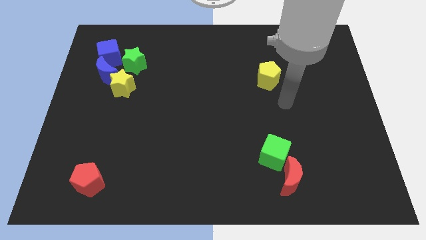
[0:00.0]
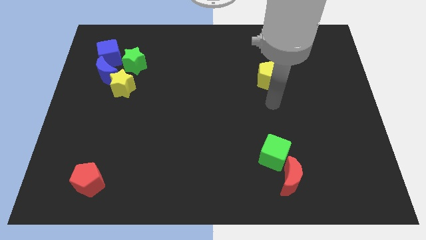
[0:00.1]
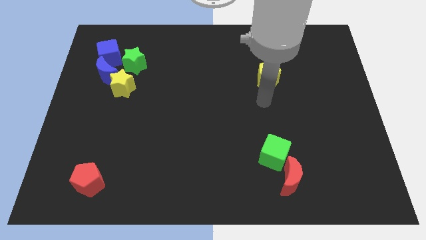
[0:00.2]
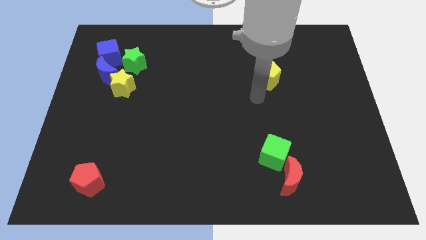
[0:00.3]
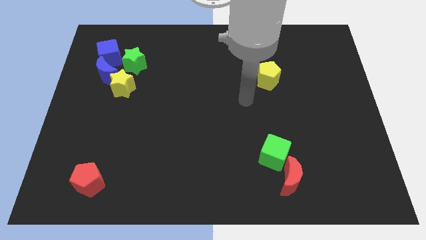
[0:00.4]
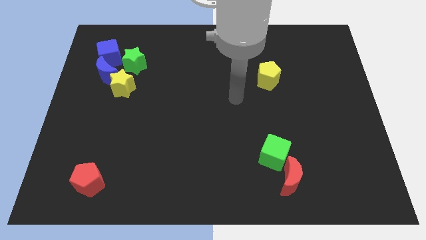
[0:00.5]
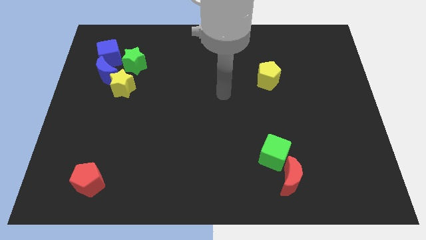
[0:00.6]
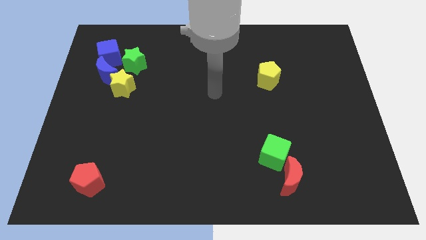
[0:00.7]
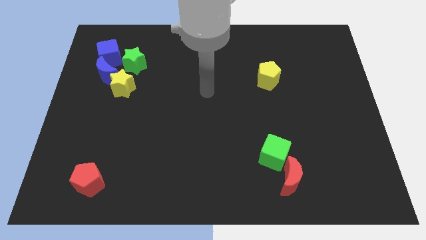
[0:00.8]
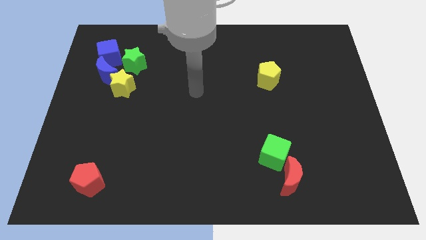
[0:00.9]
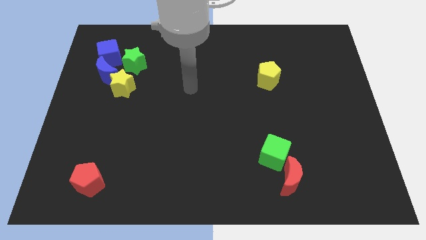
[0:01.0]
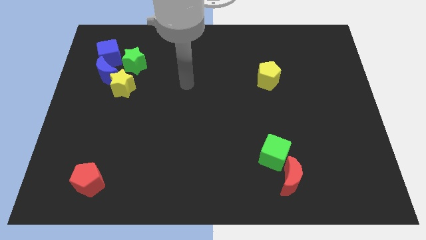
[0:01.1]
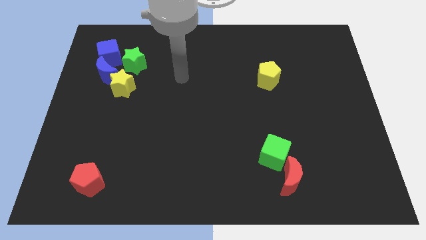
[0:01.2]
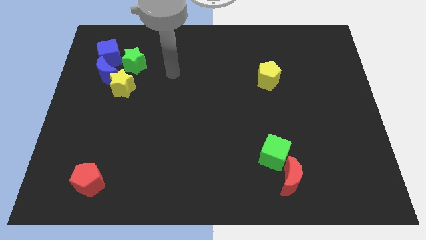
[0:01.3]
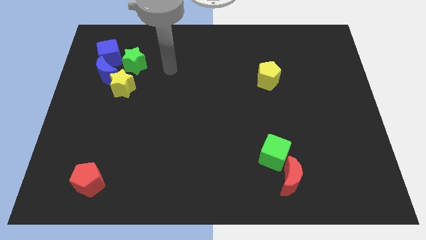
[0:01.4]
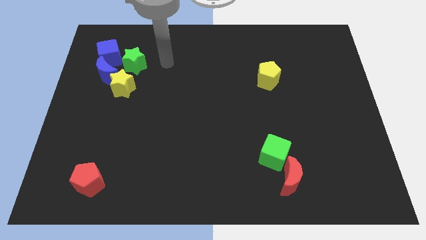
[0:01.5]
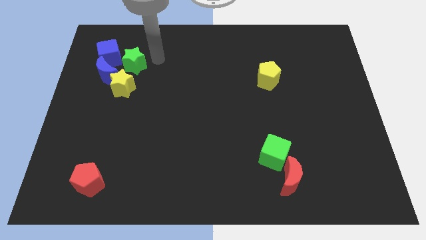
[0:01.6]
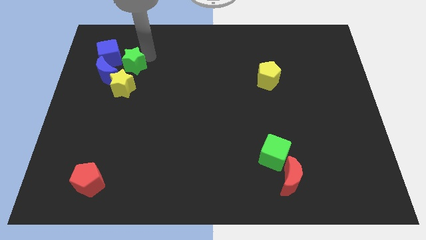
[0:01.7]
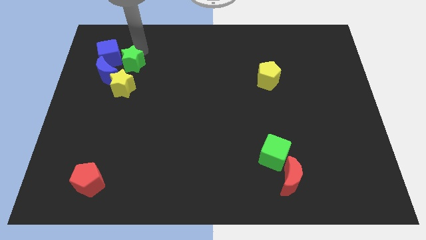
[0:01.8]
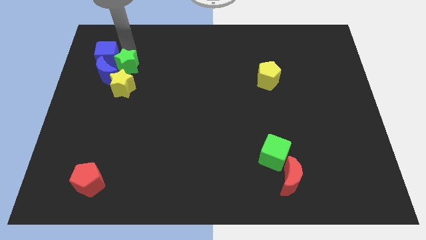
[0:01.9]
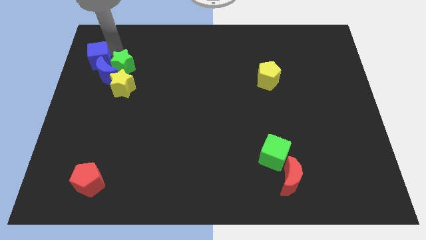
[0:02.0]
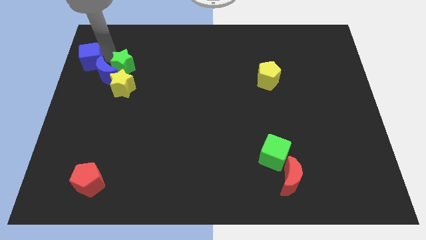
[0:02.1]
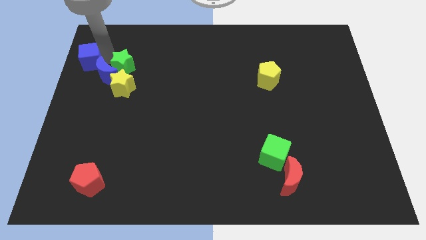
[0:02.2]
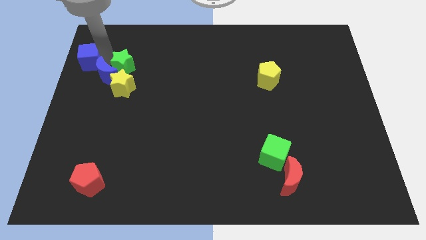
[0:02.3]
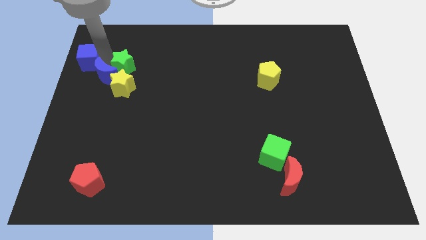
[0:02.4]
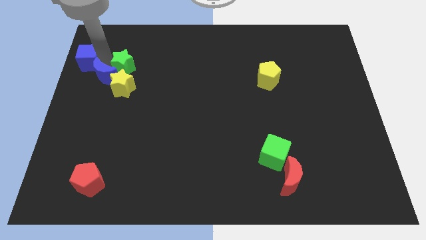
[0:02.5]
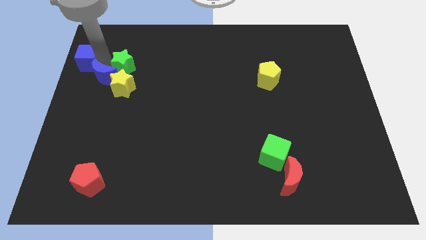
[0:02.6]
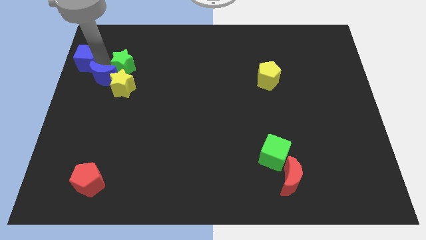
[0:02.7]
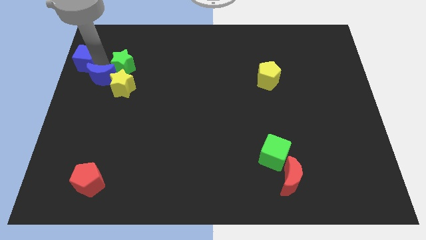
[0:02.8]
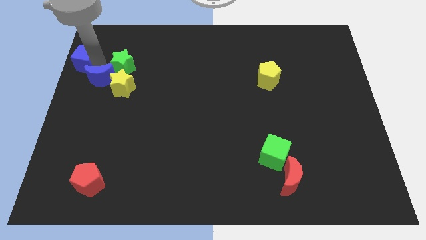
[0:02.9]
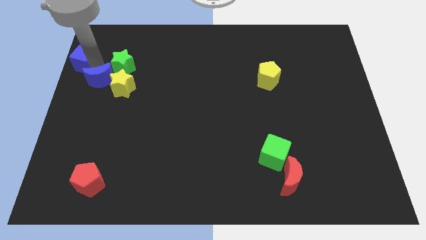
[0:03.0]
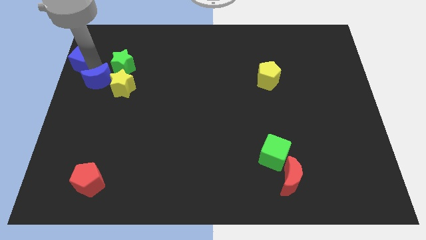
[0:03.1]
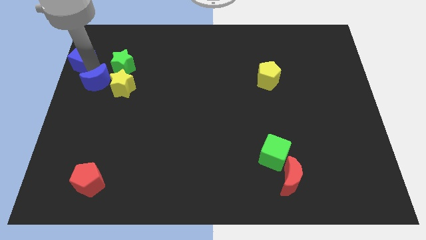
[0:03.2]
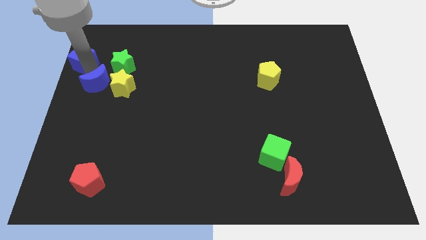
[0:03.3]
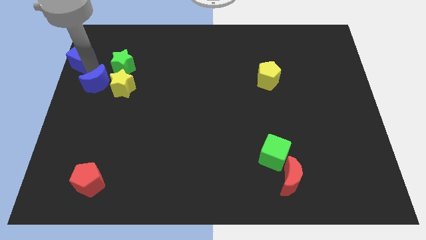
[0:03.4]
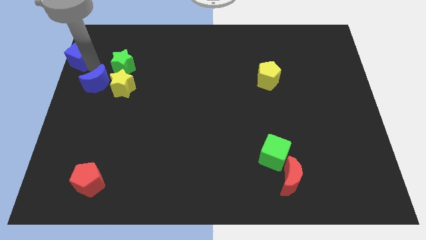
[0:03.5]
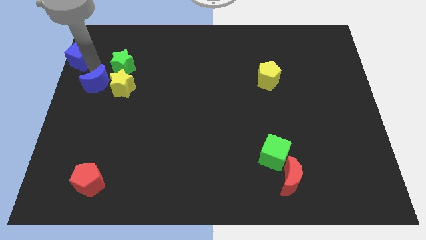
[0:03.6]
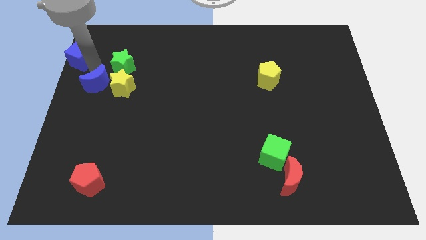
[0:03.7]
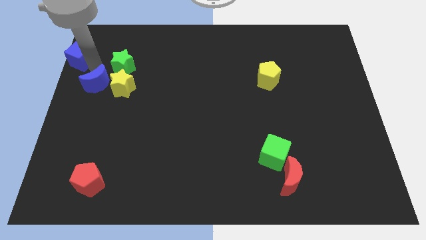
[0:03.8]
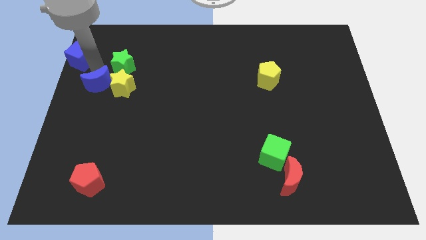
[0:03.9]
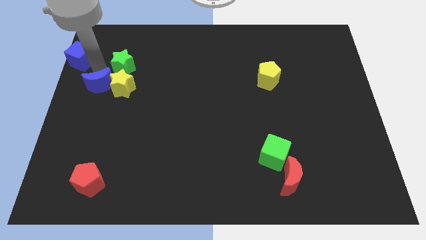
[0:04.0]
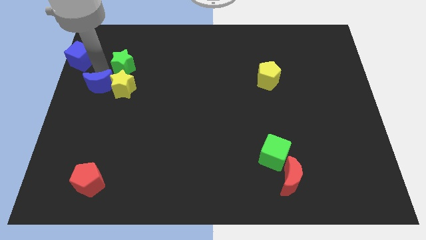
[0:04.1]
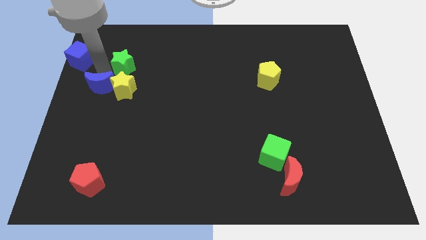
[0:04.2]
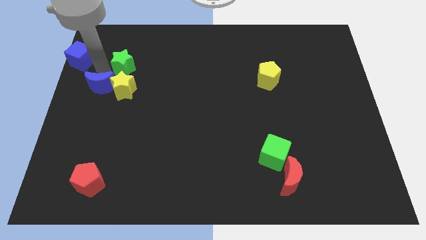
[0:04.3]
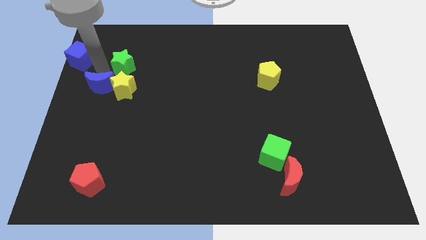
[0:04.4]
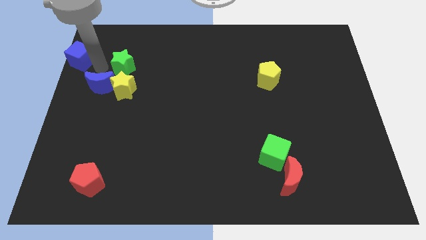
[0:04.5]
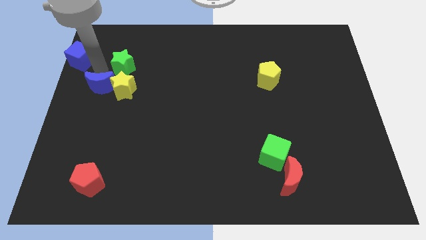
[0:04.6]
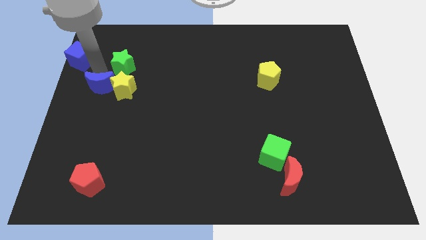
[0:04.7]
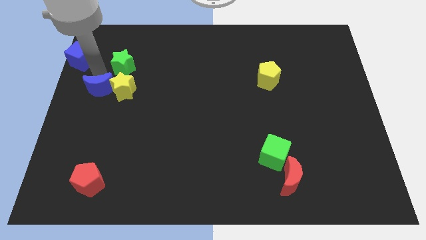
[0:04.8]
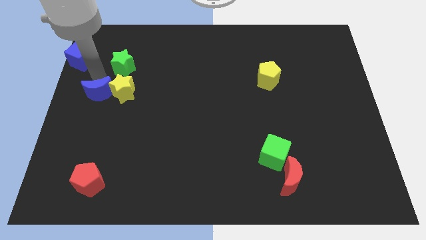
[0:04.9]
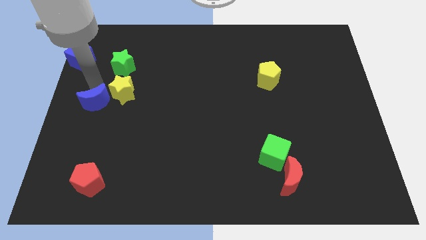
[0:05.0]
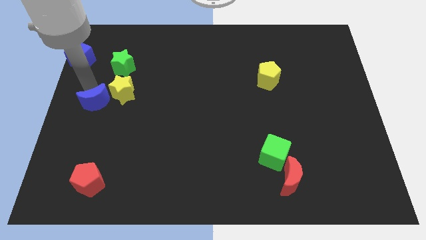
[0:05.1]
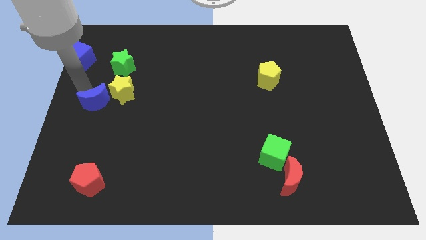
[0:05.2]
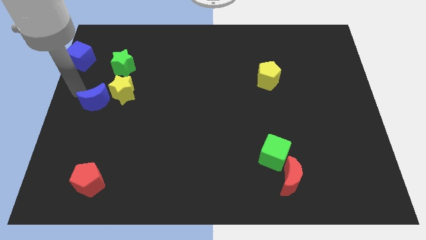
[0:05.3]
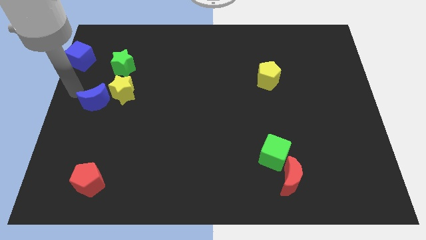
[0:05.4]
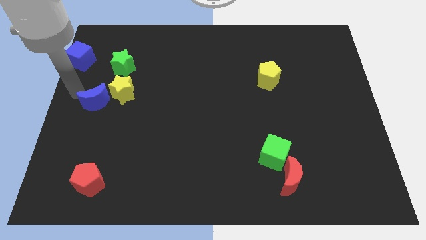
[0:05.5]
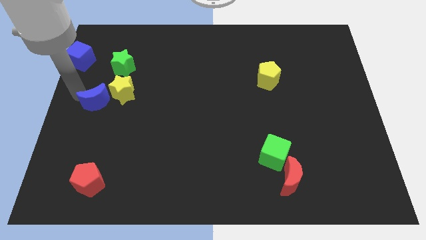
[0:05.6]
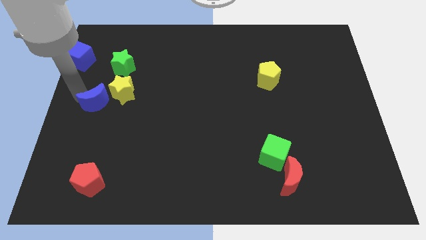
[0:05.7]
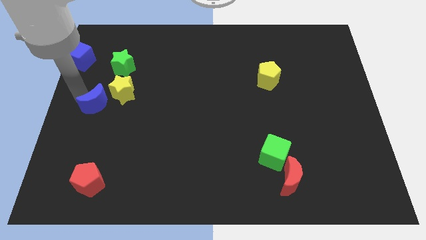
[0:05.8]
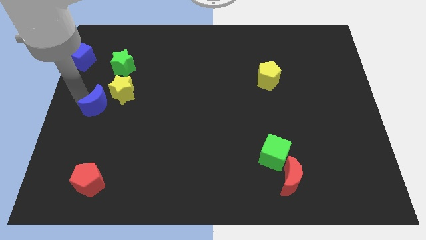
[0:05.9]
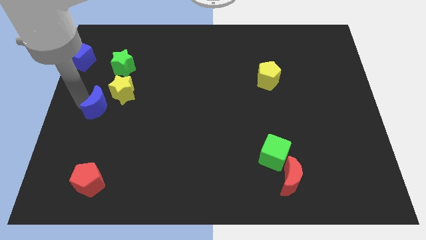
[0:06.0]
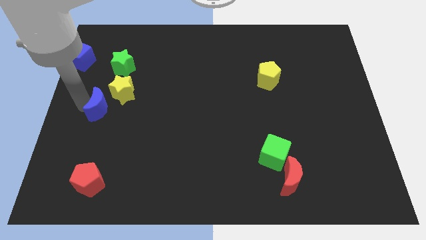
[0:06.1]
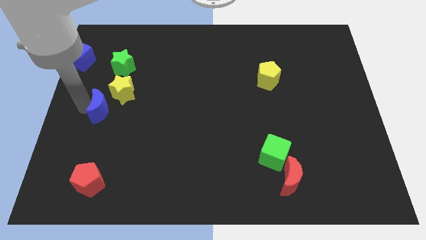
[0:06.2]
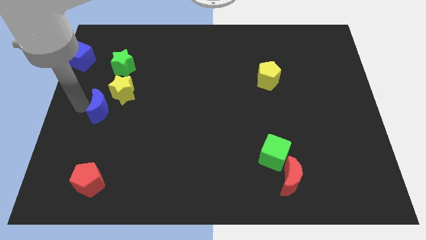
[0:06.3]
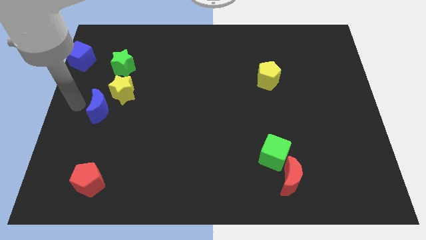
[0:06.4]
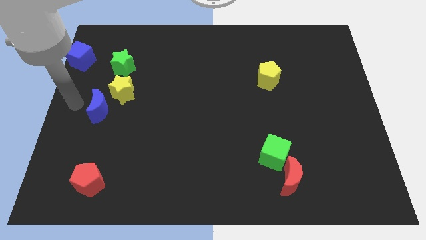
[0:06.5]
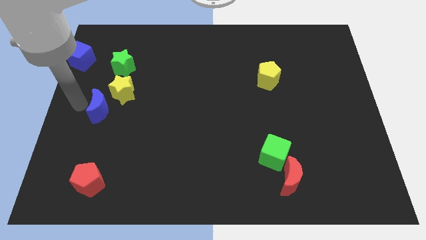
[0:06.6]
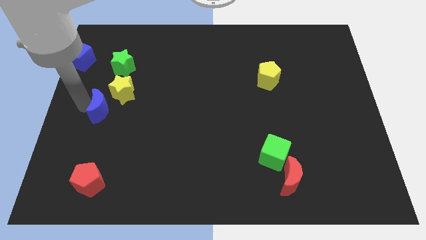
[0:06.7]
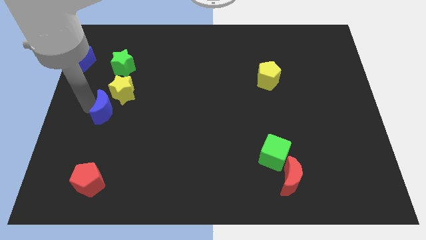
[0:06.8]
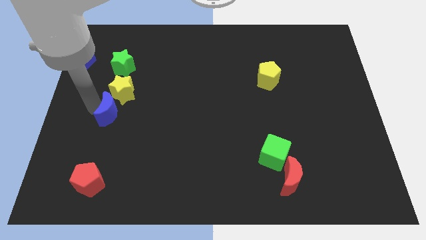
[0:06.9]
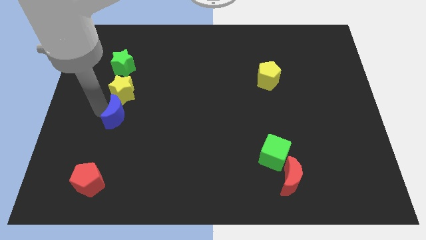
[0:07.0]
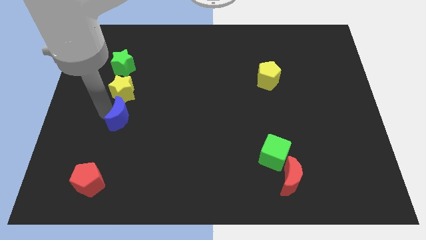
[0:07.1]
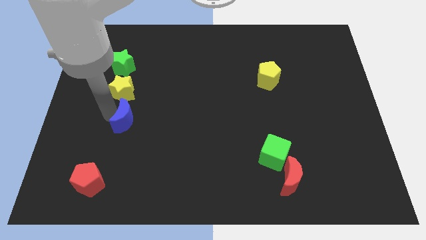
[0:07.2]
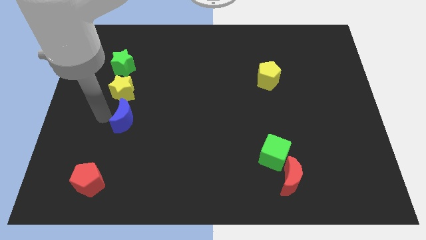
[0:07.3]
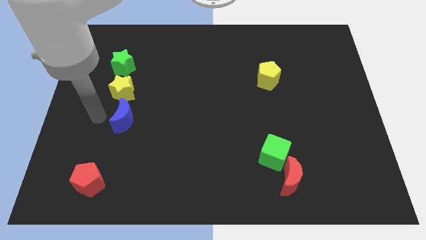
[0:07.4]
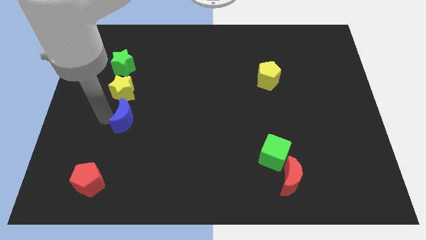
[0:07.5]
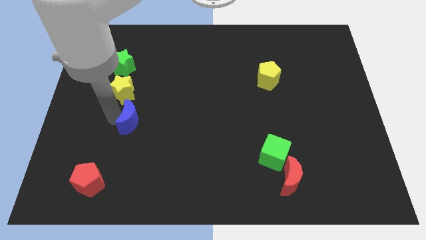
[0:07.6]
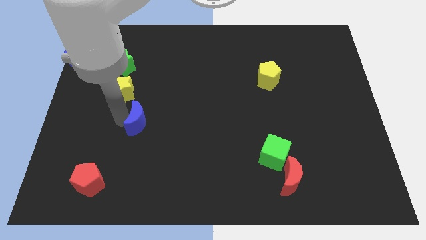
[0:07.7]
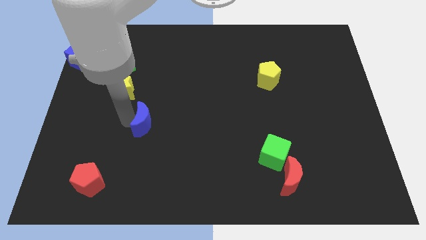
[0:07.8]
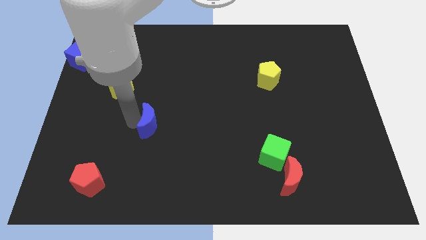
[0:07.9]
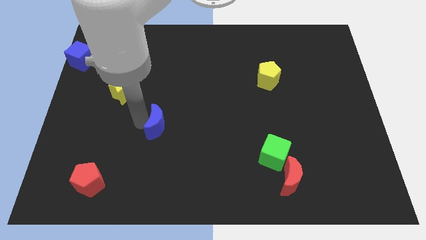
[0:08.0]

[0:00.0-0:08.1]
push the blue moon diagonally downwards and right
